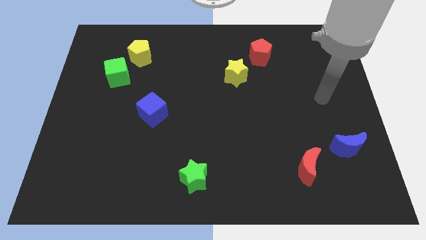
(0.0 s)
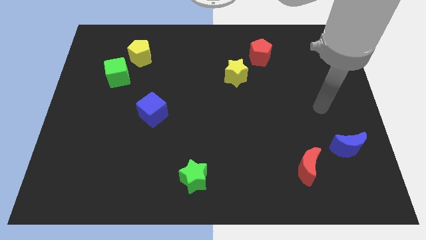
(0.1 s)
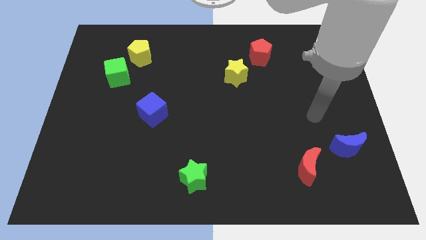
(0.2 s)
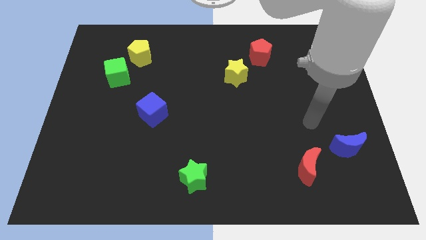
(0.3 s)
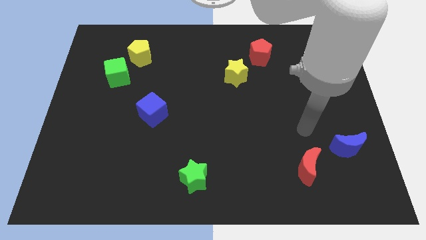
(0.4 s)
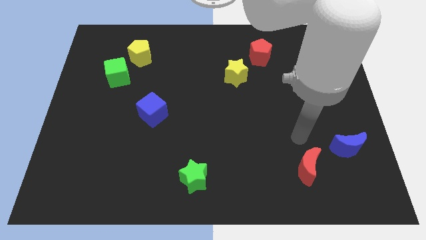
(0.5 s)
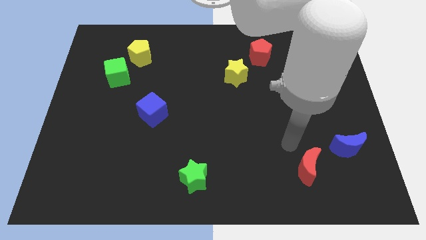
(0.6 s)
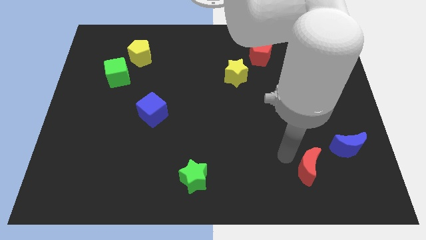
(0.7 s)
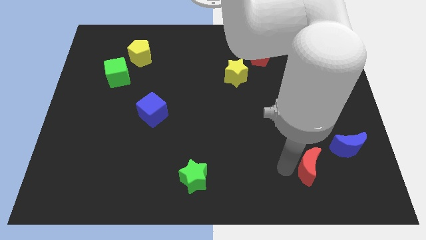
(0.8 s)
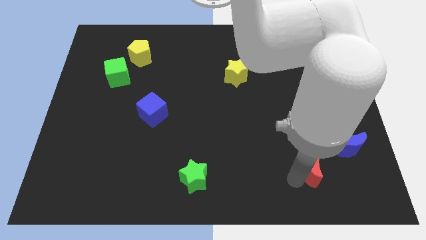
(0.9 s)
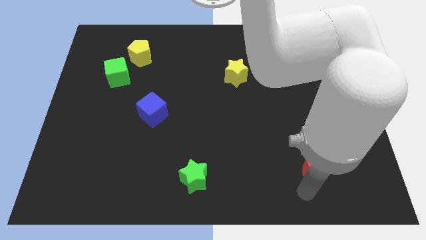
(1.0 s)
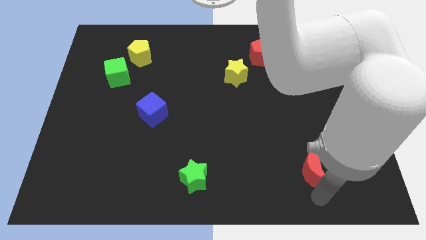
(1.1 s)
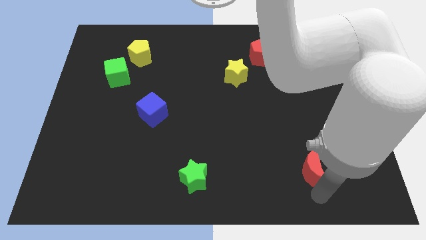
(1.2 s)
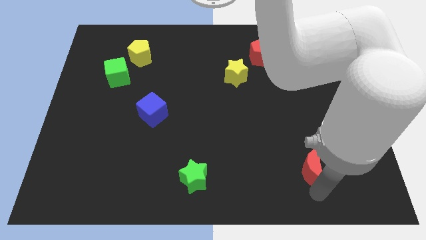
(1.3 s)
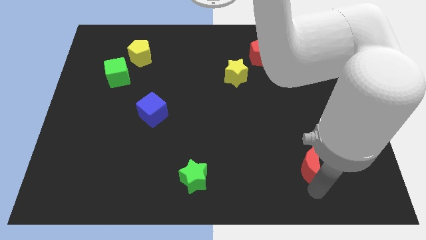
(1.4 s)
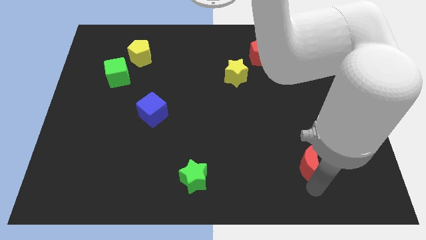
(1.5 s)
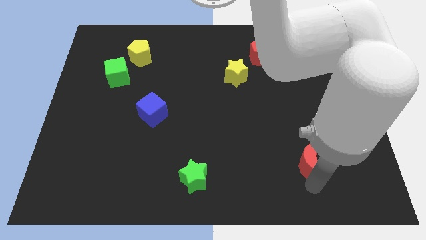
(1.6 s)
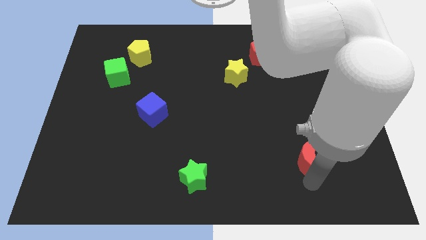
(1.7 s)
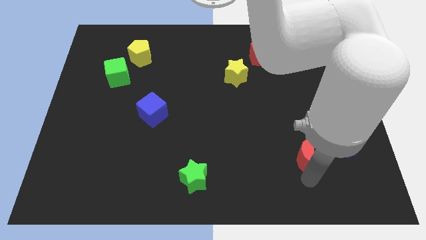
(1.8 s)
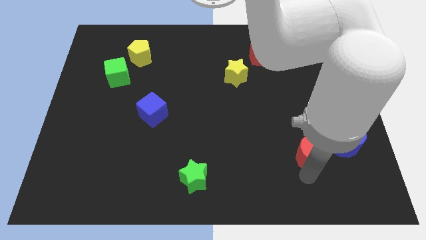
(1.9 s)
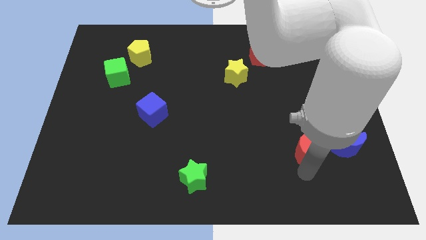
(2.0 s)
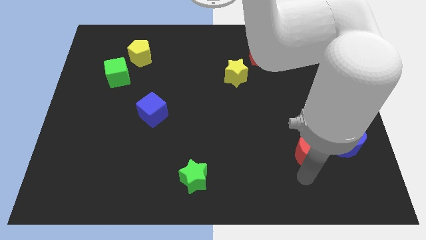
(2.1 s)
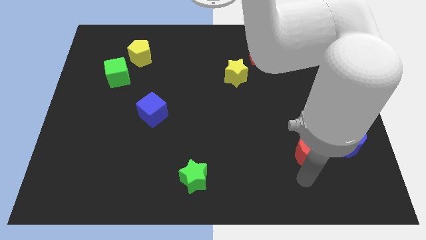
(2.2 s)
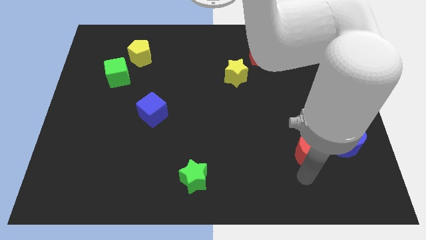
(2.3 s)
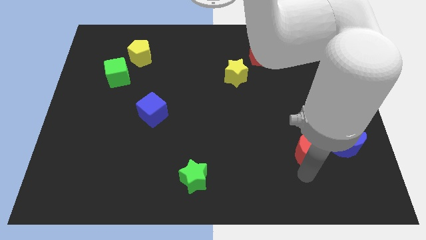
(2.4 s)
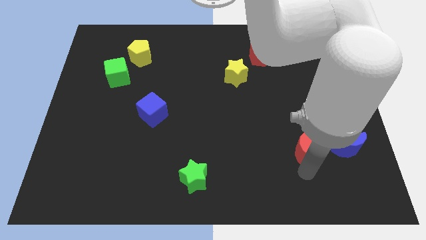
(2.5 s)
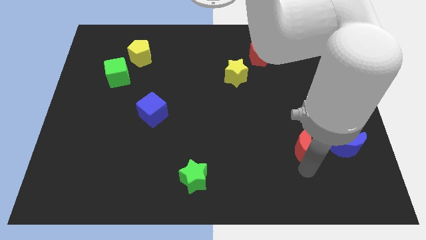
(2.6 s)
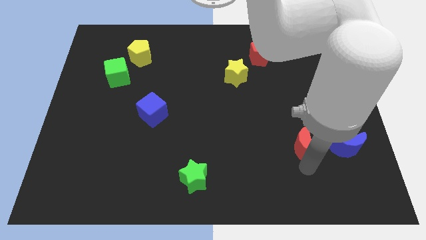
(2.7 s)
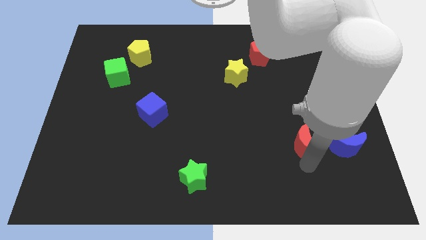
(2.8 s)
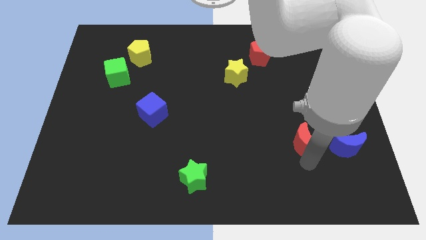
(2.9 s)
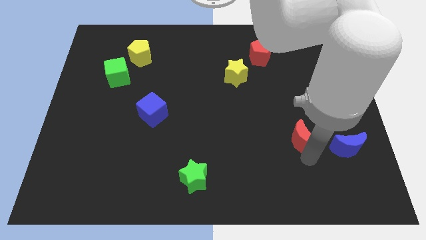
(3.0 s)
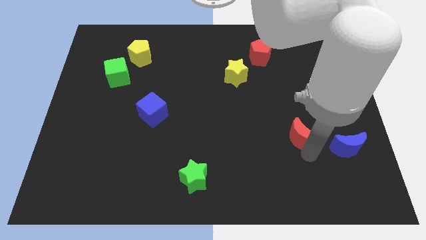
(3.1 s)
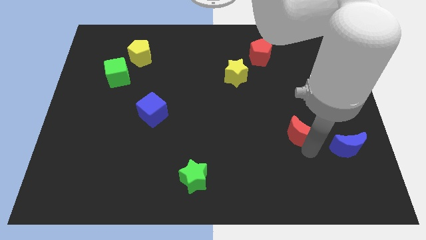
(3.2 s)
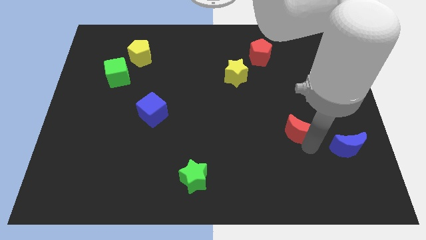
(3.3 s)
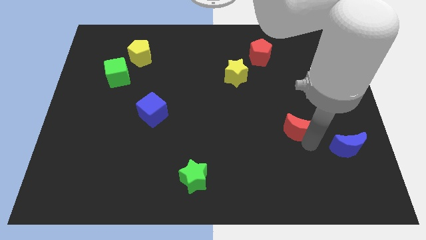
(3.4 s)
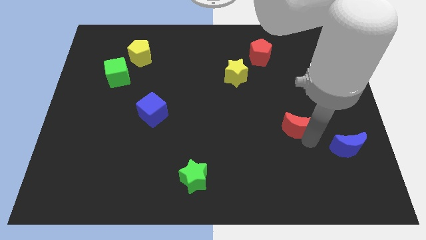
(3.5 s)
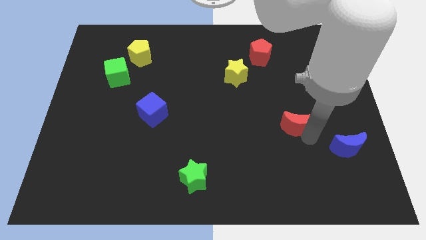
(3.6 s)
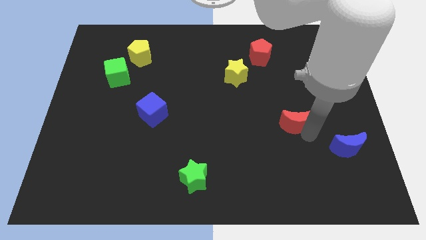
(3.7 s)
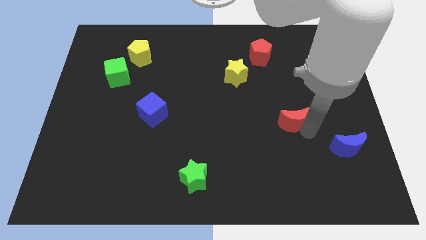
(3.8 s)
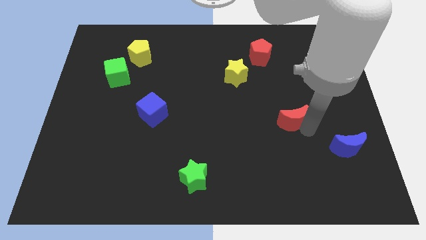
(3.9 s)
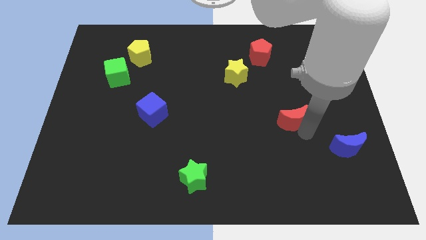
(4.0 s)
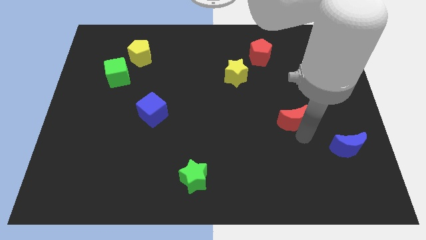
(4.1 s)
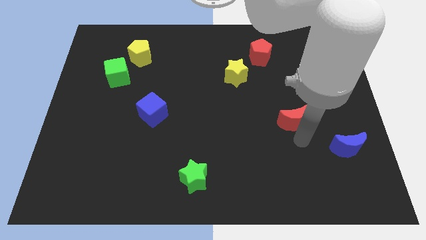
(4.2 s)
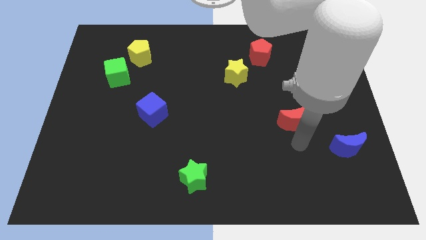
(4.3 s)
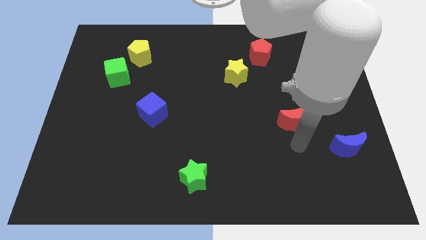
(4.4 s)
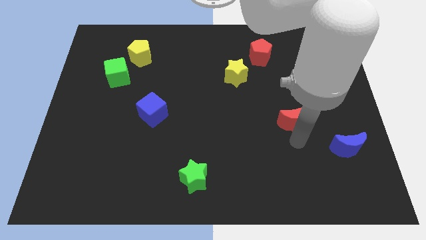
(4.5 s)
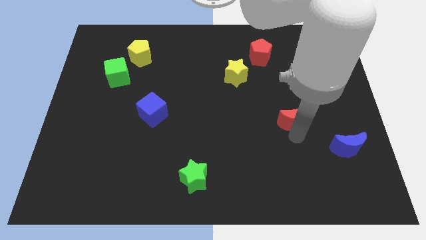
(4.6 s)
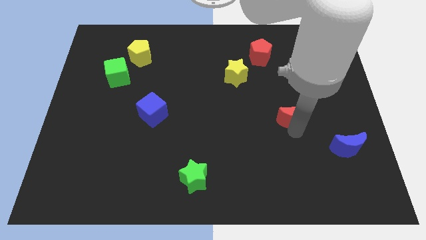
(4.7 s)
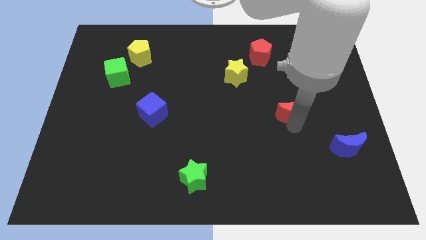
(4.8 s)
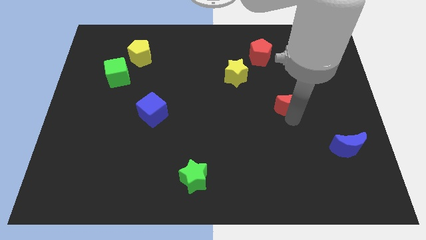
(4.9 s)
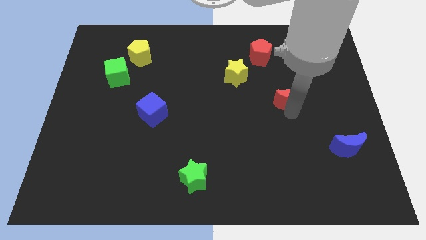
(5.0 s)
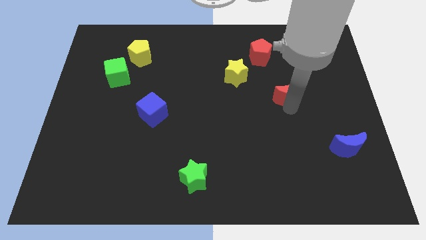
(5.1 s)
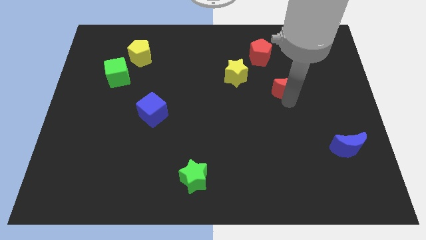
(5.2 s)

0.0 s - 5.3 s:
slide the red moon up

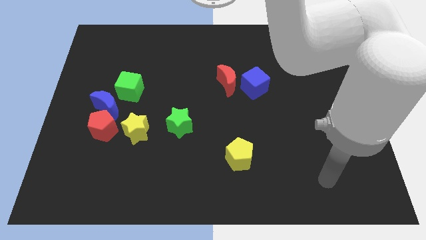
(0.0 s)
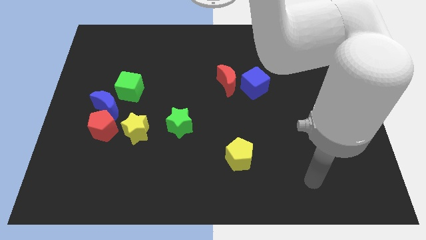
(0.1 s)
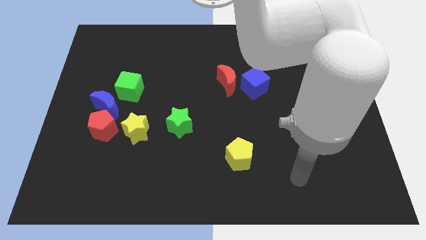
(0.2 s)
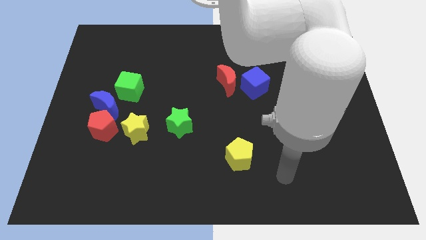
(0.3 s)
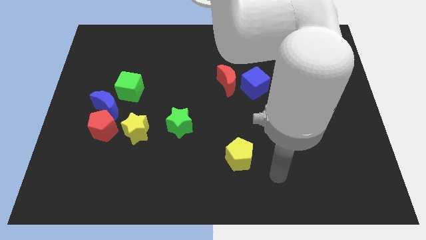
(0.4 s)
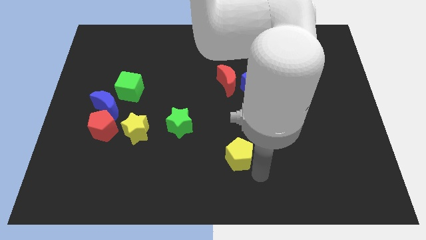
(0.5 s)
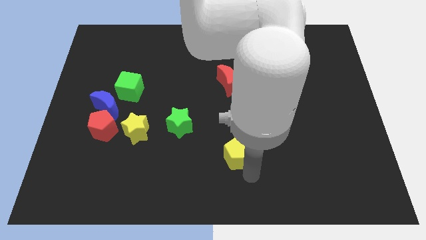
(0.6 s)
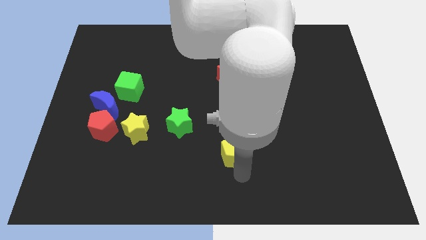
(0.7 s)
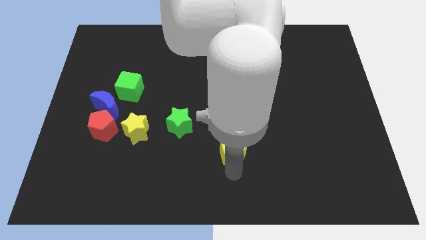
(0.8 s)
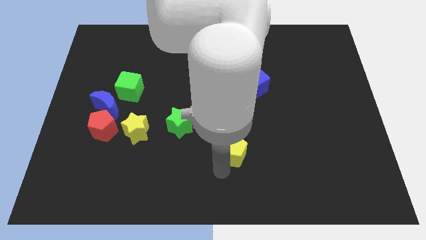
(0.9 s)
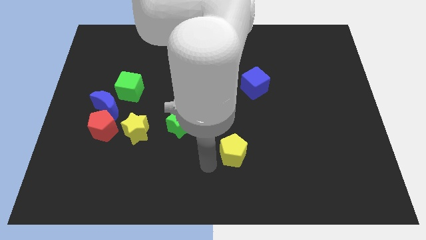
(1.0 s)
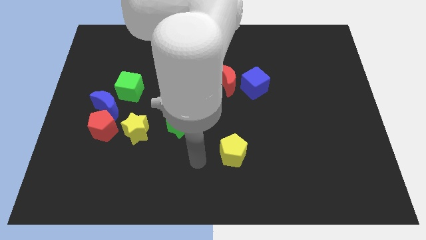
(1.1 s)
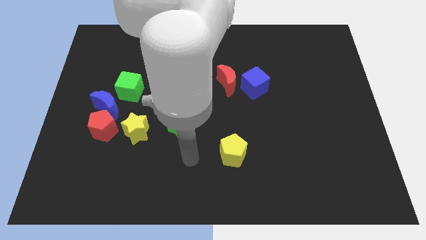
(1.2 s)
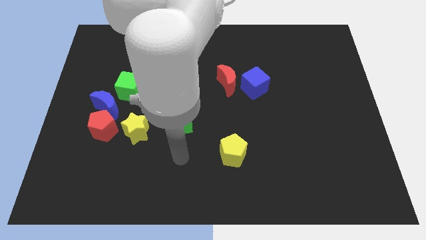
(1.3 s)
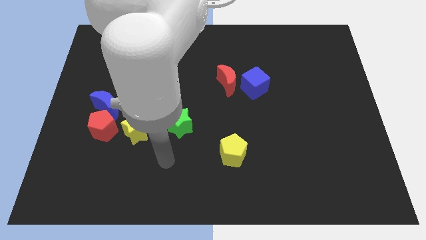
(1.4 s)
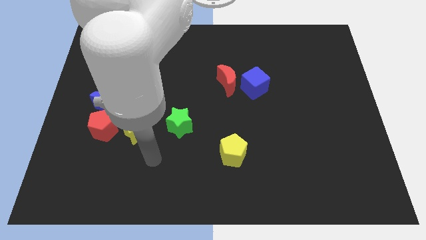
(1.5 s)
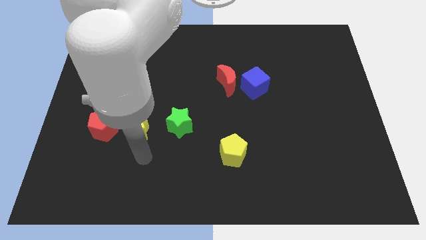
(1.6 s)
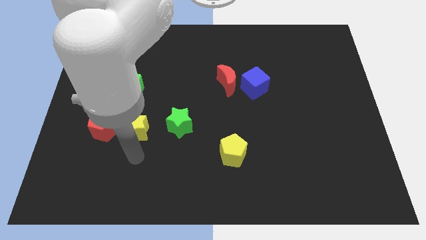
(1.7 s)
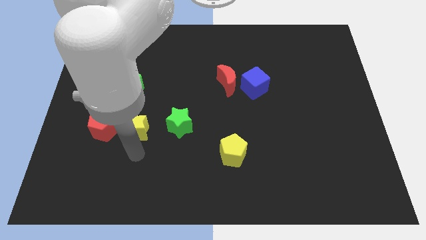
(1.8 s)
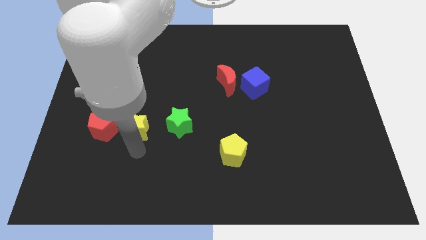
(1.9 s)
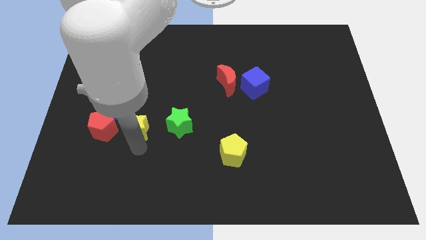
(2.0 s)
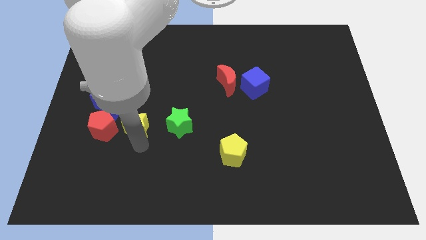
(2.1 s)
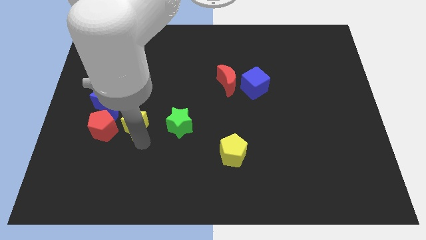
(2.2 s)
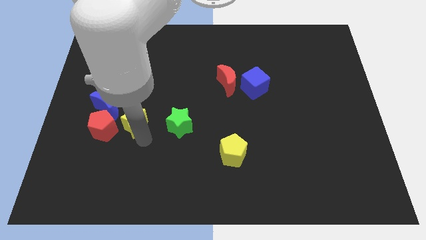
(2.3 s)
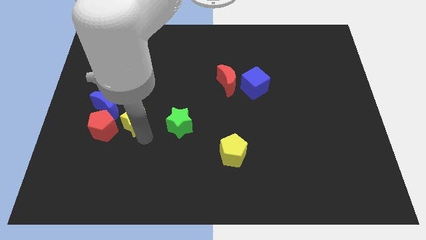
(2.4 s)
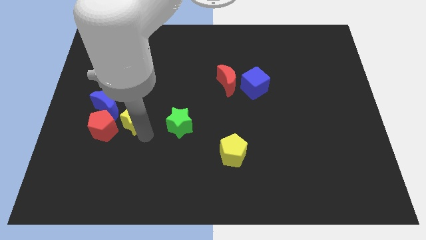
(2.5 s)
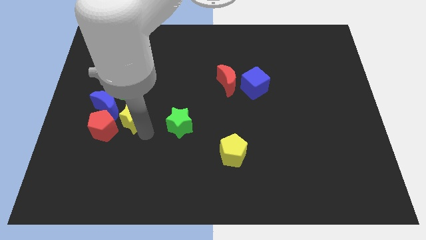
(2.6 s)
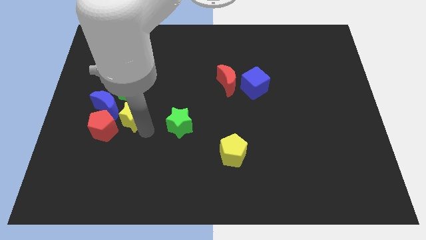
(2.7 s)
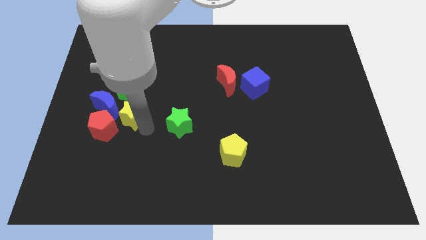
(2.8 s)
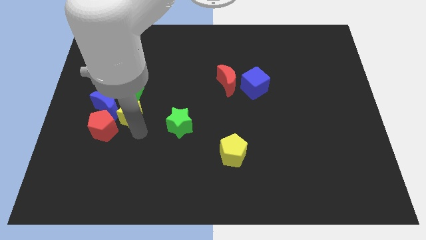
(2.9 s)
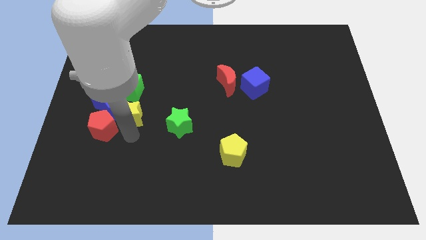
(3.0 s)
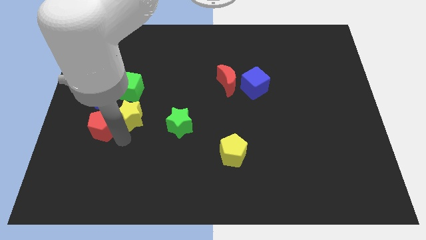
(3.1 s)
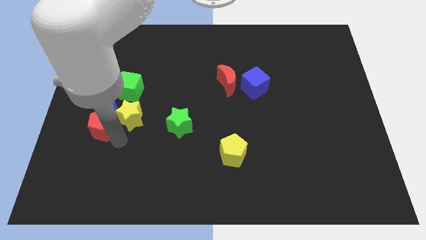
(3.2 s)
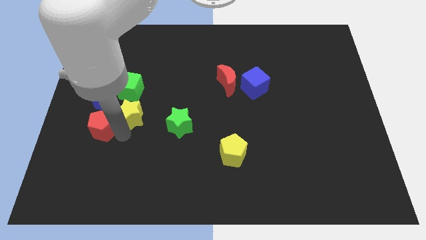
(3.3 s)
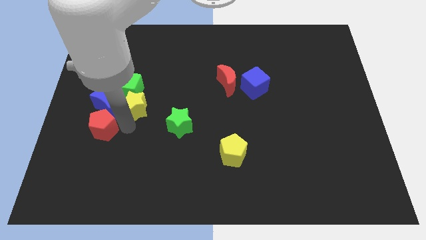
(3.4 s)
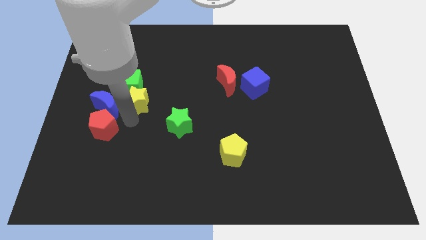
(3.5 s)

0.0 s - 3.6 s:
slightly move the yellow star upwards
